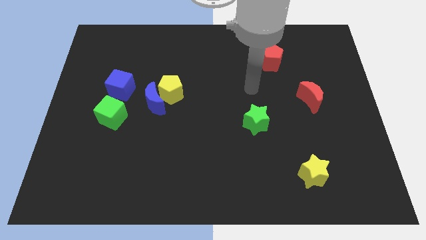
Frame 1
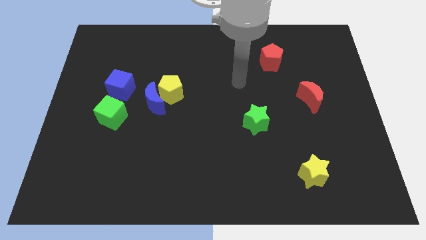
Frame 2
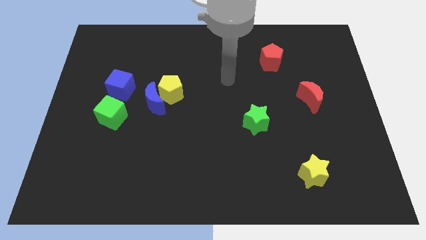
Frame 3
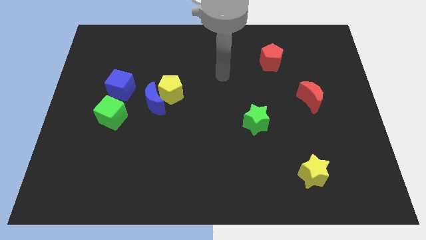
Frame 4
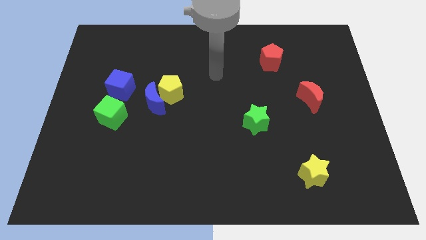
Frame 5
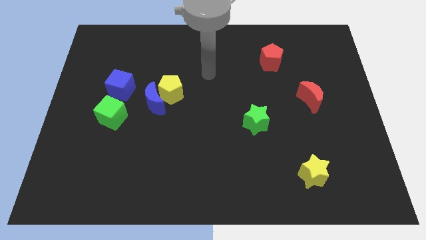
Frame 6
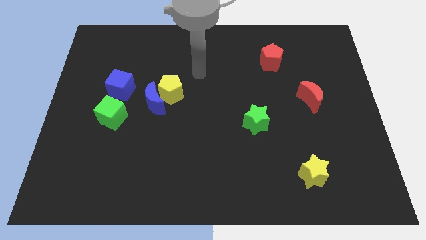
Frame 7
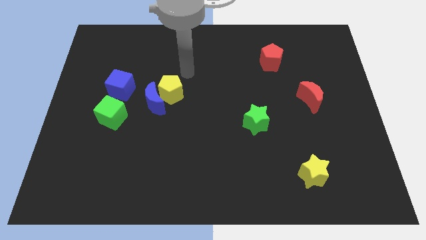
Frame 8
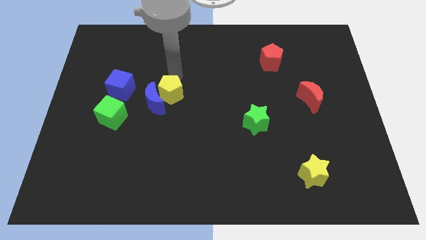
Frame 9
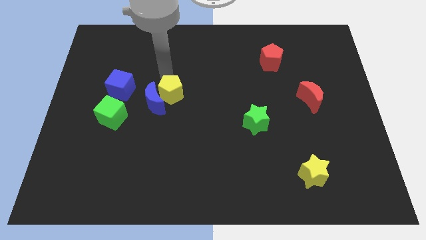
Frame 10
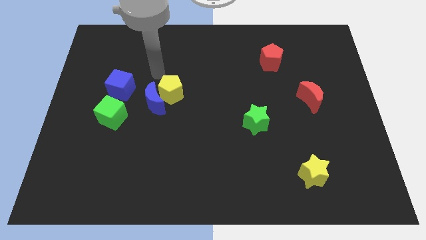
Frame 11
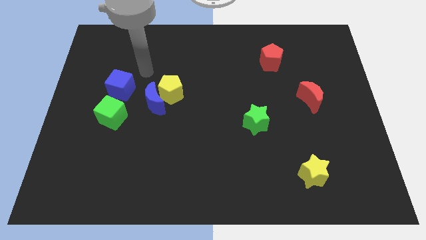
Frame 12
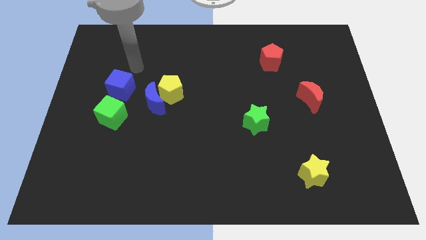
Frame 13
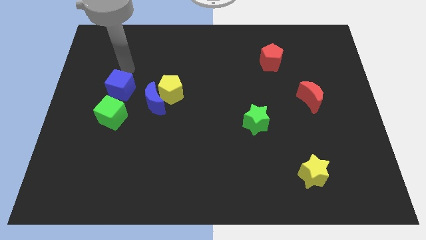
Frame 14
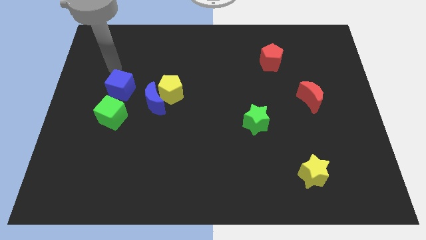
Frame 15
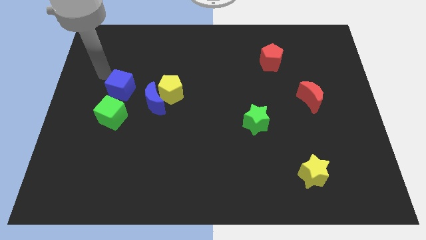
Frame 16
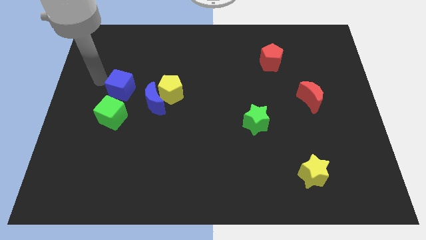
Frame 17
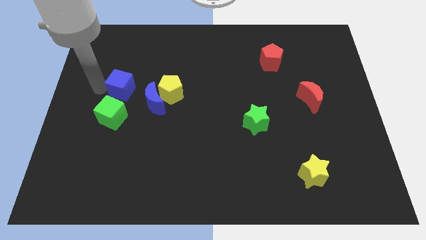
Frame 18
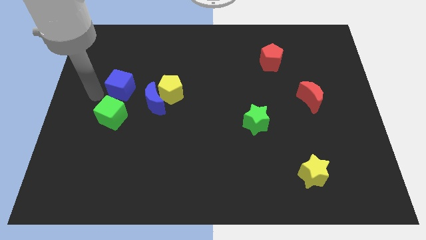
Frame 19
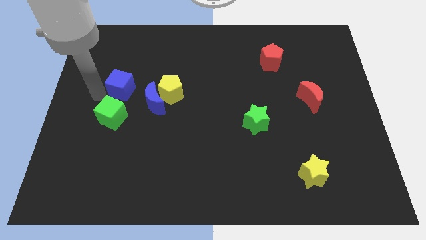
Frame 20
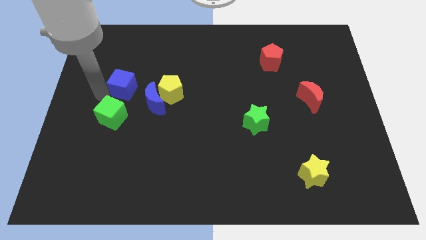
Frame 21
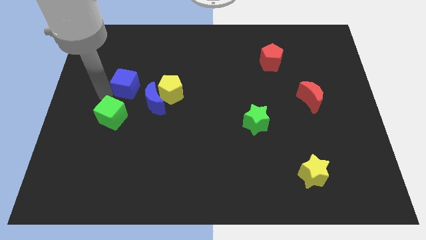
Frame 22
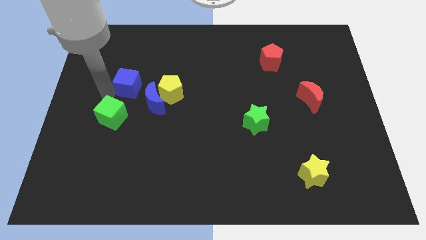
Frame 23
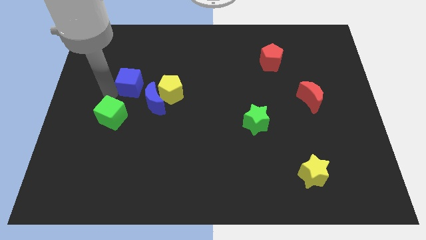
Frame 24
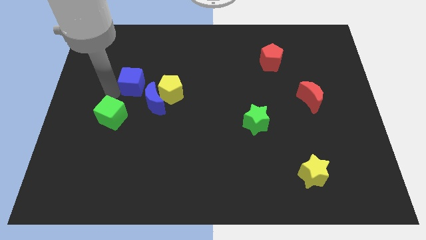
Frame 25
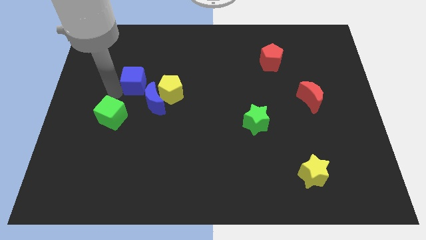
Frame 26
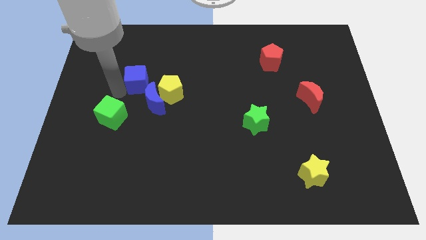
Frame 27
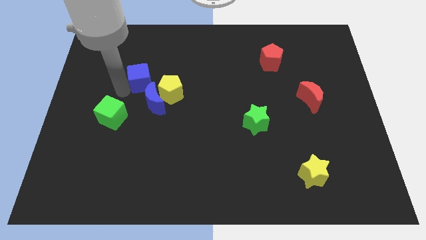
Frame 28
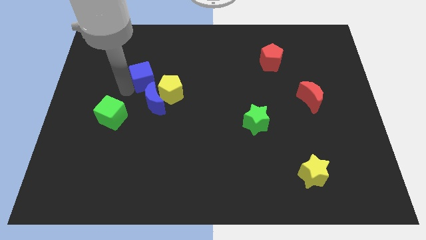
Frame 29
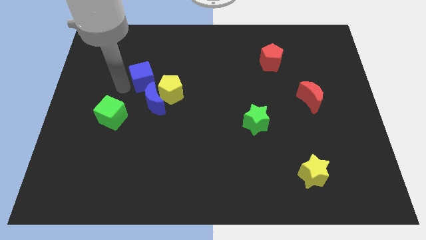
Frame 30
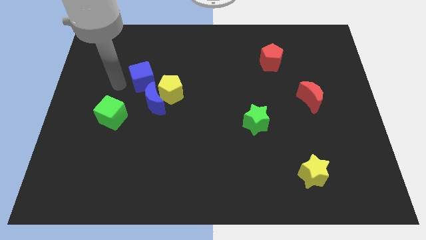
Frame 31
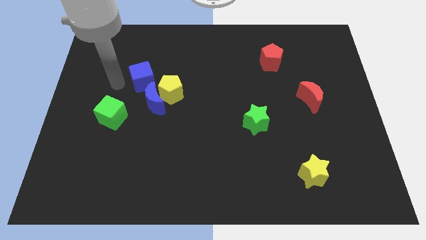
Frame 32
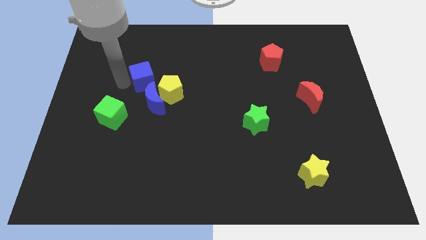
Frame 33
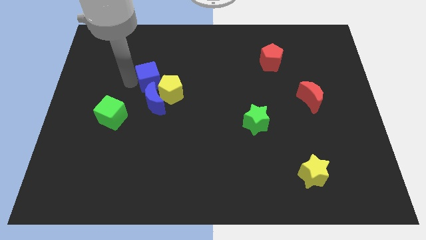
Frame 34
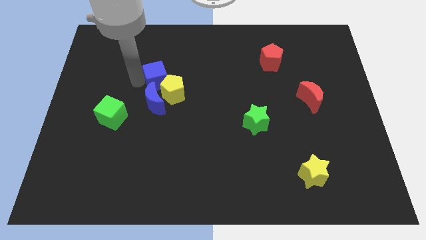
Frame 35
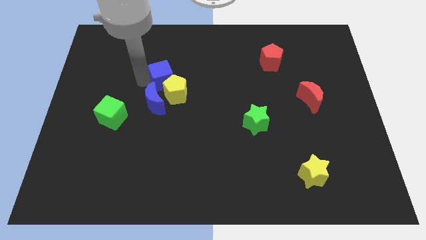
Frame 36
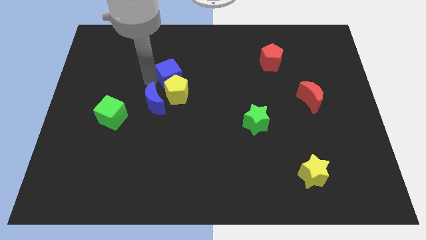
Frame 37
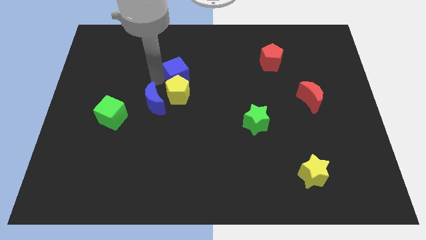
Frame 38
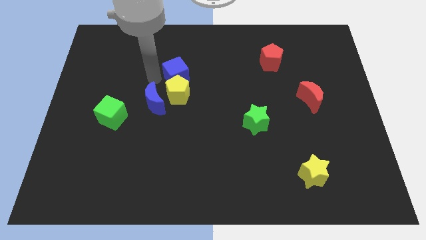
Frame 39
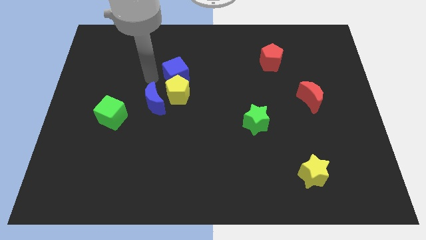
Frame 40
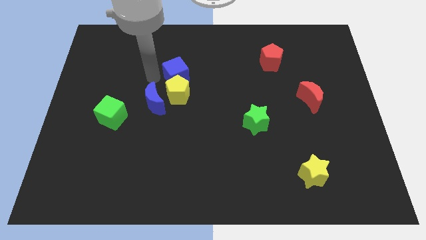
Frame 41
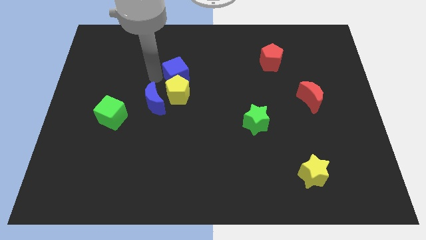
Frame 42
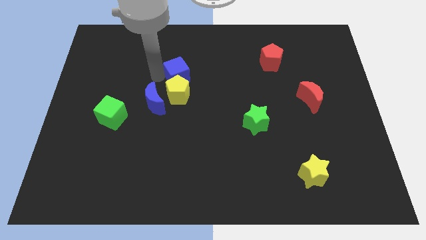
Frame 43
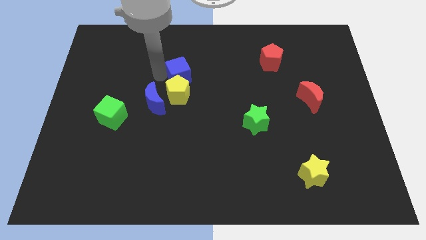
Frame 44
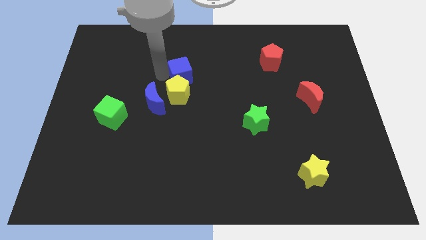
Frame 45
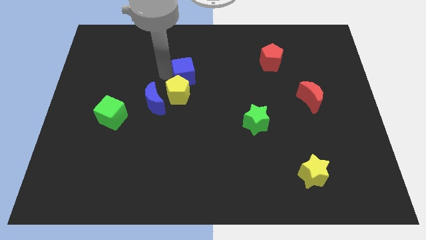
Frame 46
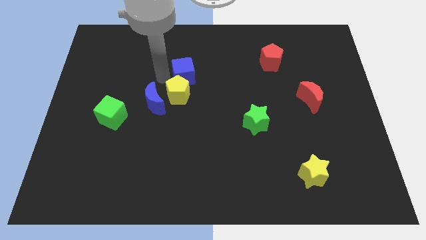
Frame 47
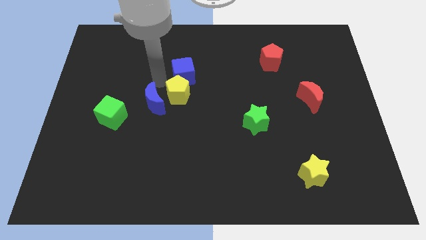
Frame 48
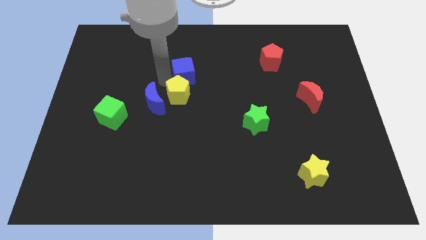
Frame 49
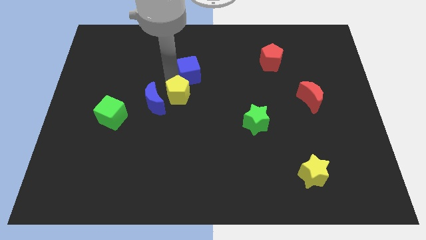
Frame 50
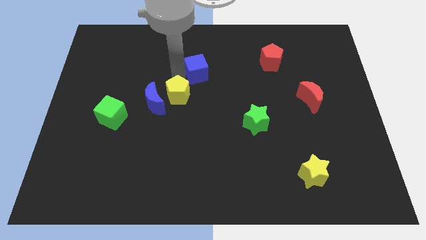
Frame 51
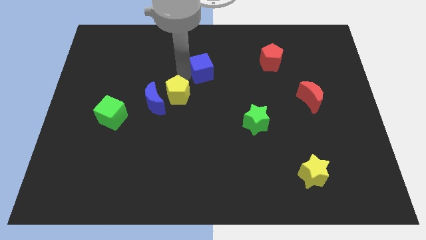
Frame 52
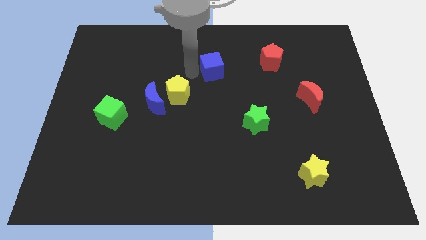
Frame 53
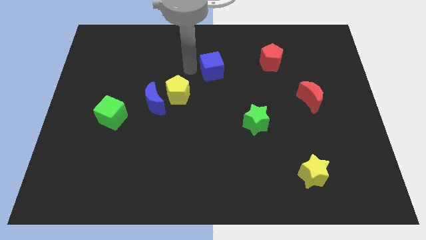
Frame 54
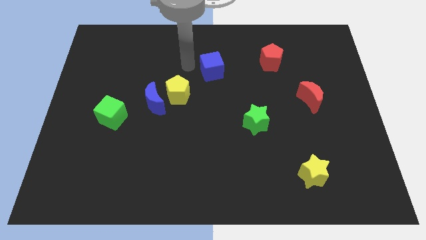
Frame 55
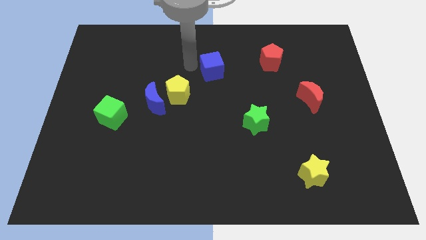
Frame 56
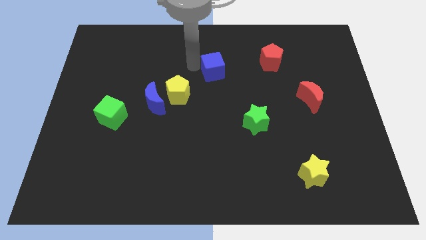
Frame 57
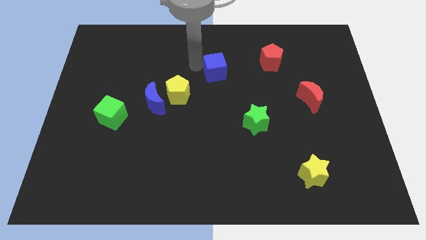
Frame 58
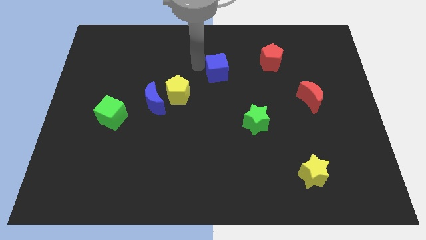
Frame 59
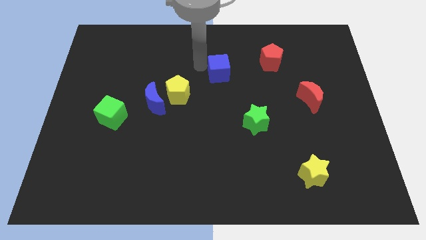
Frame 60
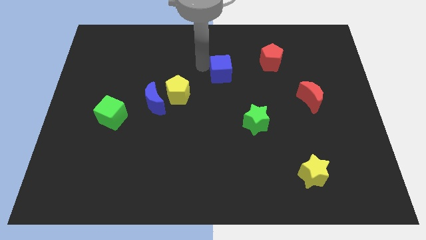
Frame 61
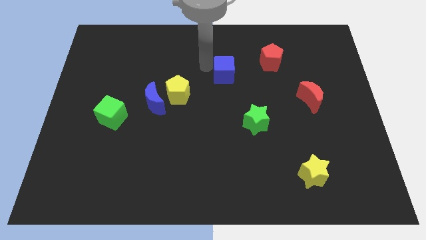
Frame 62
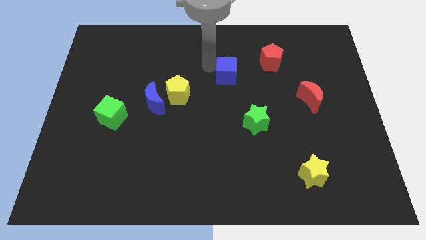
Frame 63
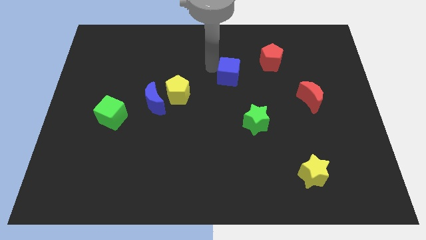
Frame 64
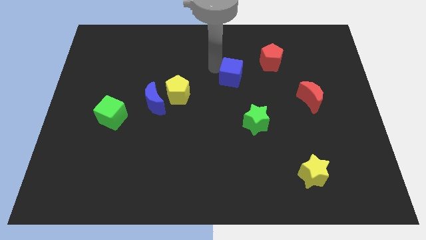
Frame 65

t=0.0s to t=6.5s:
slide the blue cube to the bottom left side of the red pentagon
